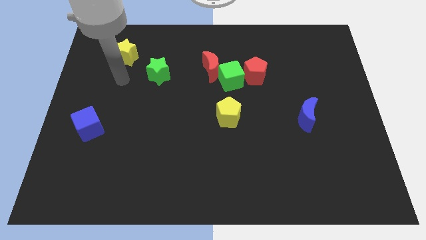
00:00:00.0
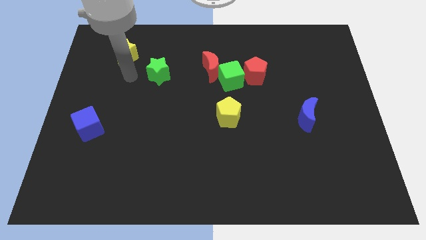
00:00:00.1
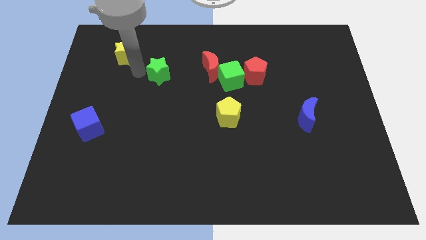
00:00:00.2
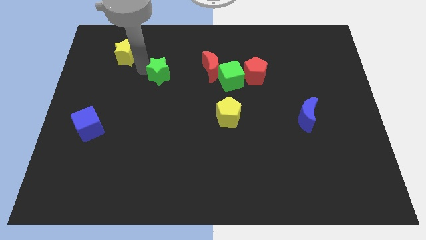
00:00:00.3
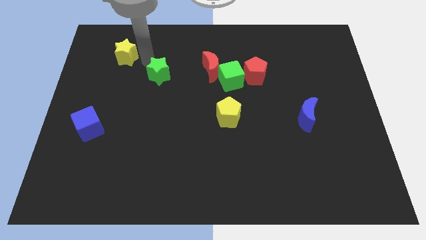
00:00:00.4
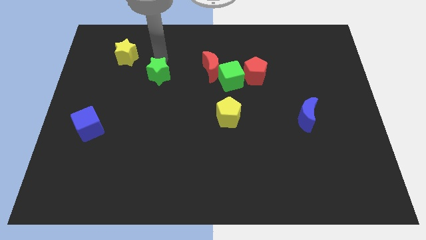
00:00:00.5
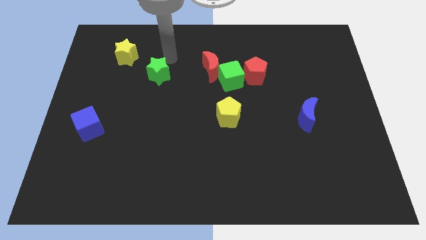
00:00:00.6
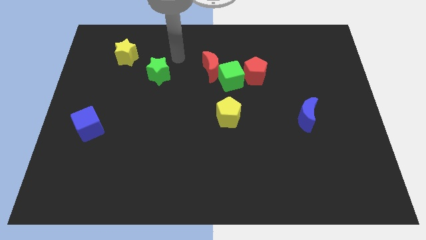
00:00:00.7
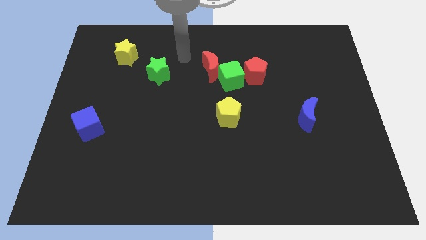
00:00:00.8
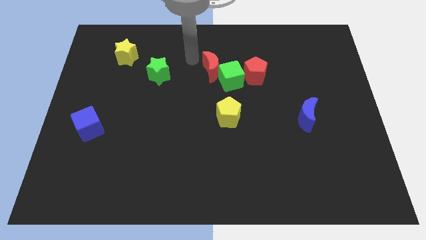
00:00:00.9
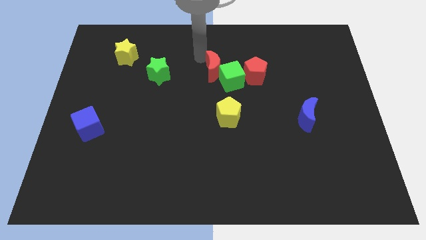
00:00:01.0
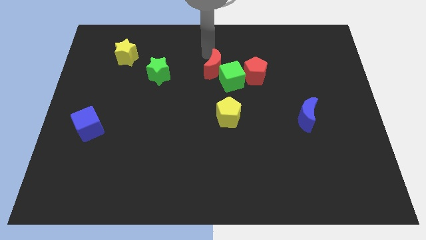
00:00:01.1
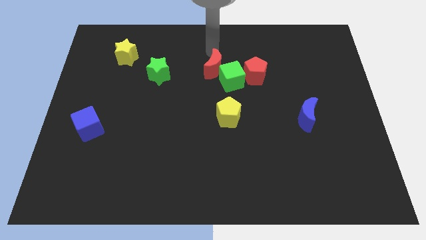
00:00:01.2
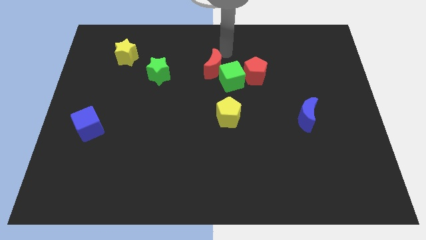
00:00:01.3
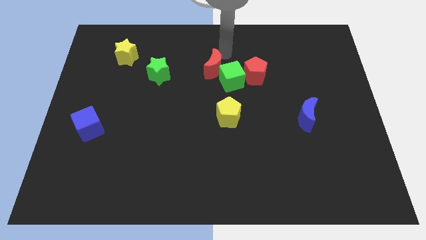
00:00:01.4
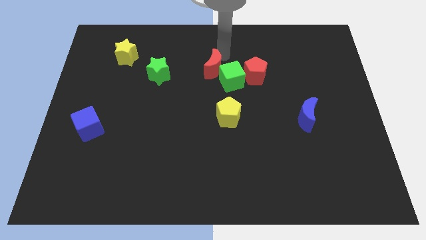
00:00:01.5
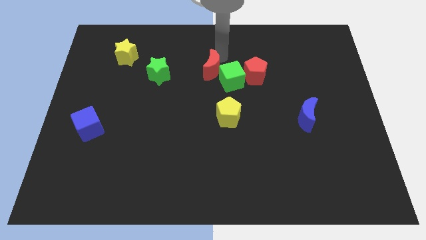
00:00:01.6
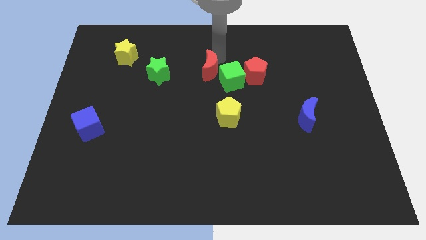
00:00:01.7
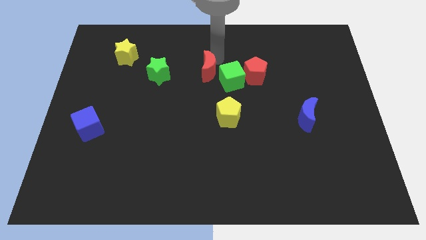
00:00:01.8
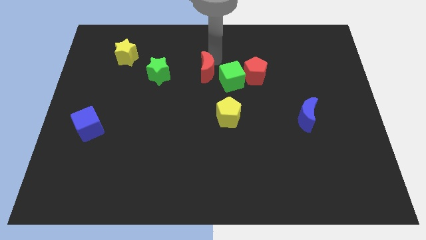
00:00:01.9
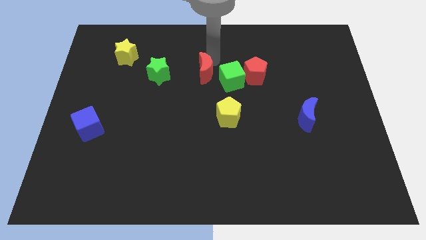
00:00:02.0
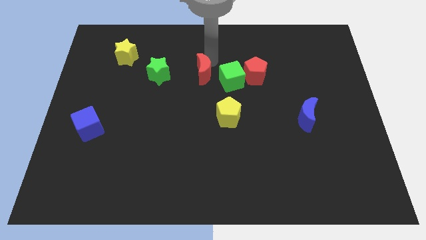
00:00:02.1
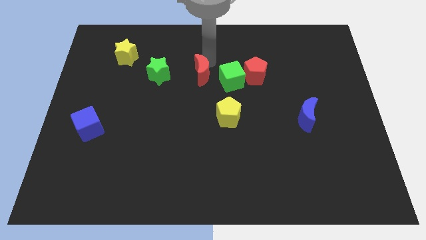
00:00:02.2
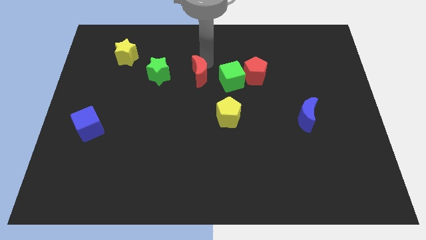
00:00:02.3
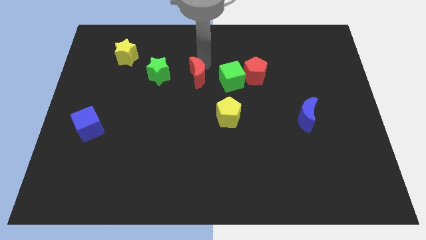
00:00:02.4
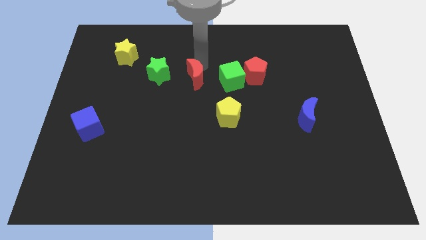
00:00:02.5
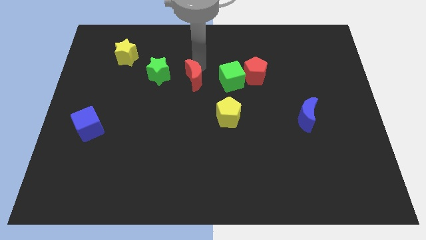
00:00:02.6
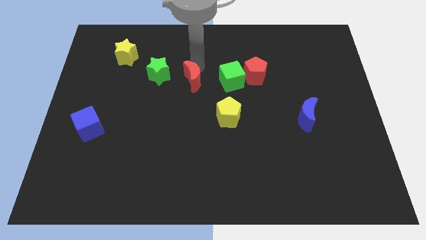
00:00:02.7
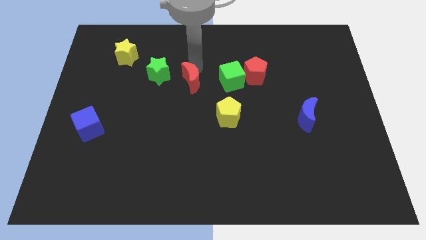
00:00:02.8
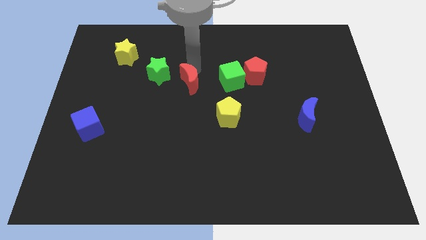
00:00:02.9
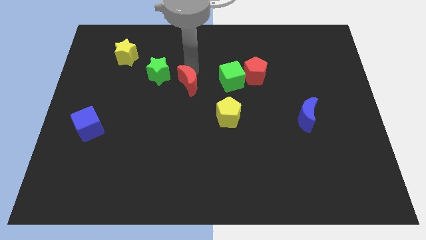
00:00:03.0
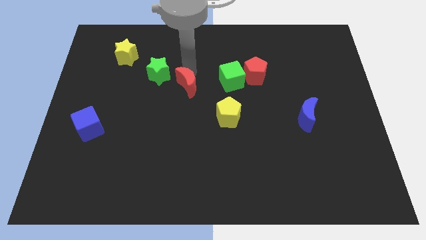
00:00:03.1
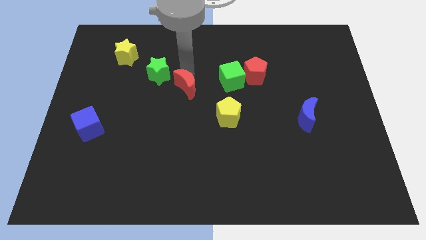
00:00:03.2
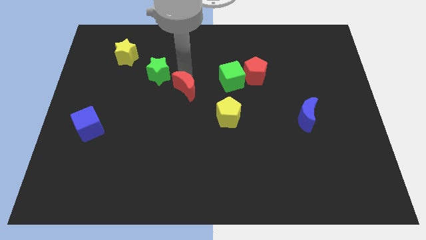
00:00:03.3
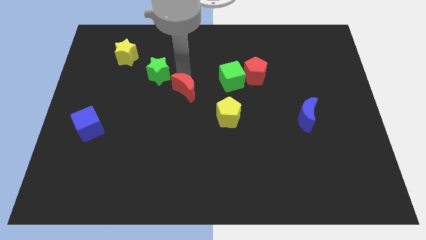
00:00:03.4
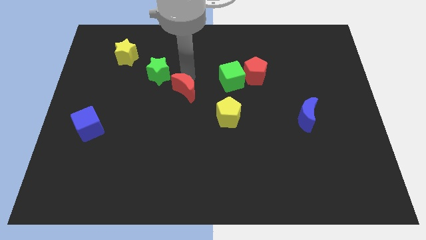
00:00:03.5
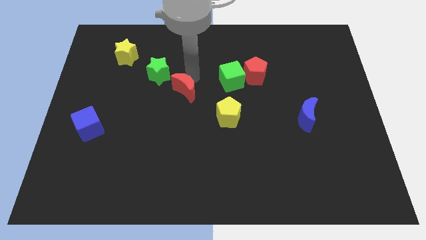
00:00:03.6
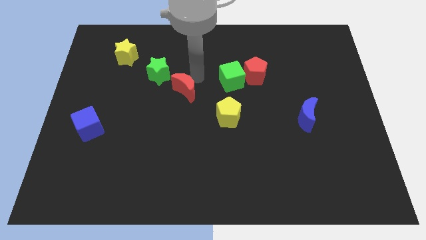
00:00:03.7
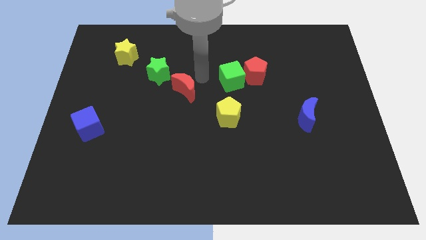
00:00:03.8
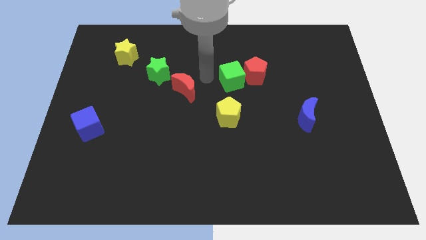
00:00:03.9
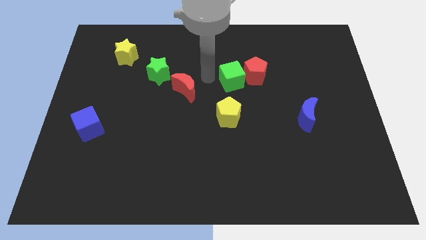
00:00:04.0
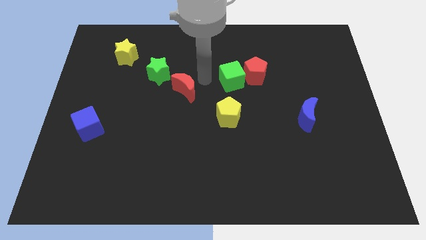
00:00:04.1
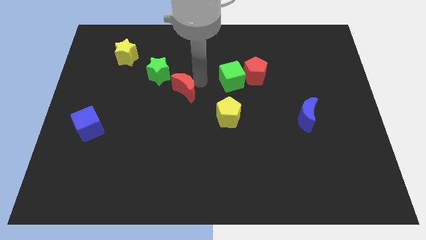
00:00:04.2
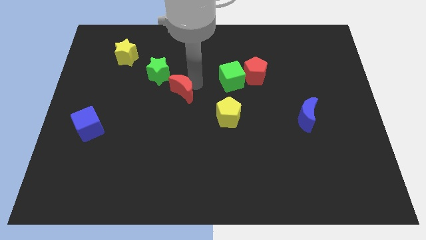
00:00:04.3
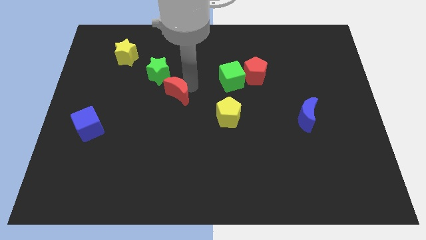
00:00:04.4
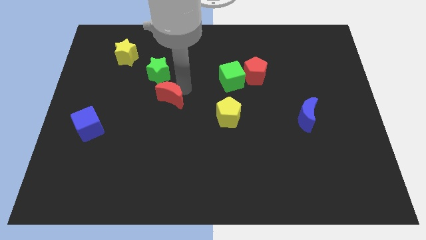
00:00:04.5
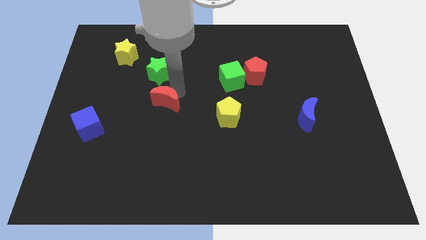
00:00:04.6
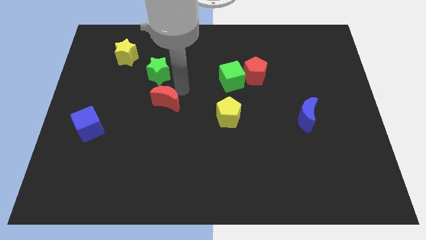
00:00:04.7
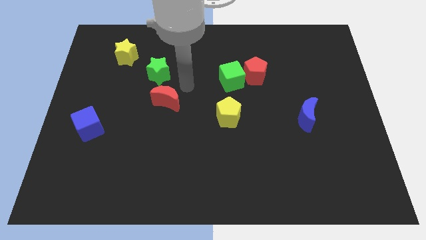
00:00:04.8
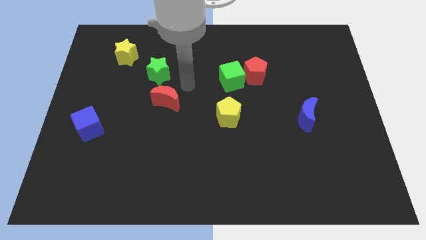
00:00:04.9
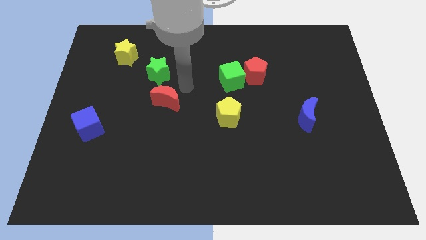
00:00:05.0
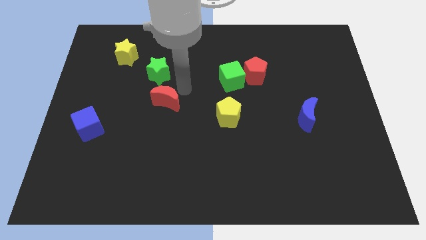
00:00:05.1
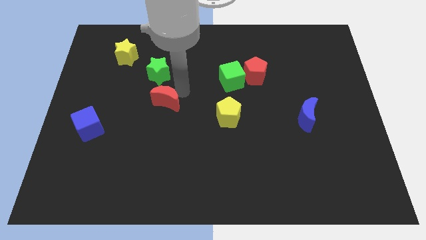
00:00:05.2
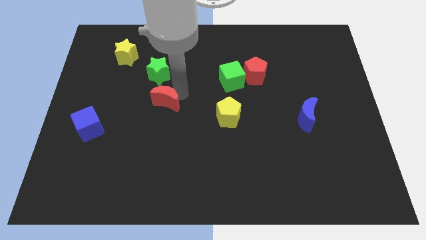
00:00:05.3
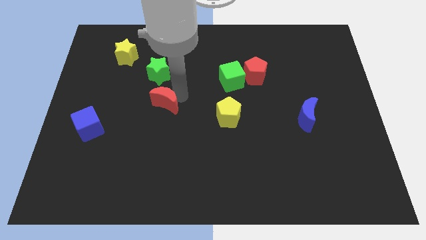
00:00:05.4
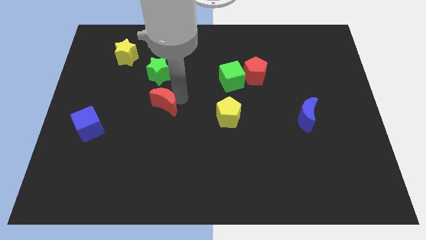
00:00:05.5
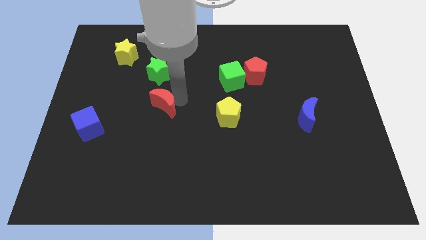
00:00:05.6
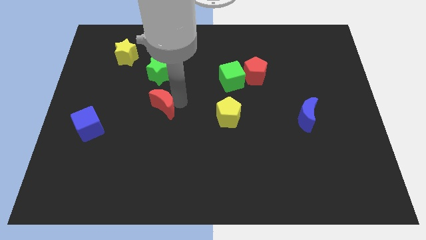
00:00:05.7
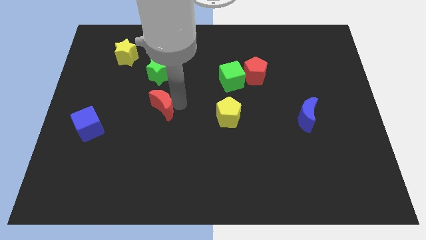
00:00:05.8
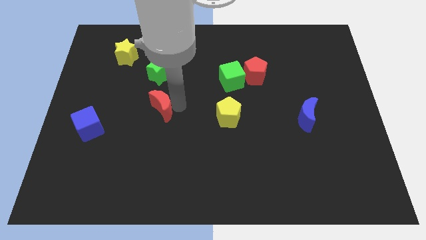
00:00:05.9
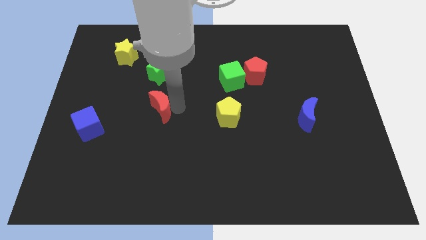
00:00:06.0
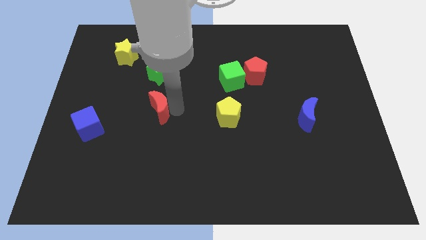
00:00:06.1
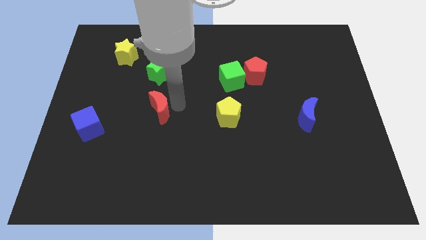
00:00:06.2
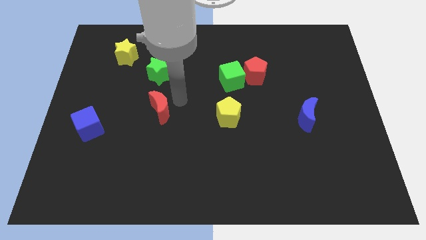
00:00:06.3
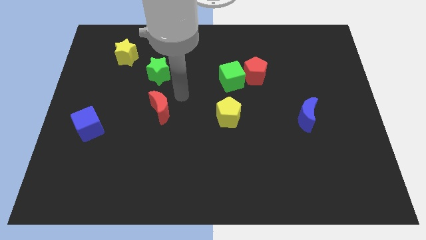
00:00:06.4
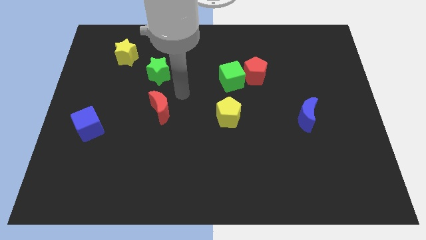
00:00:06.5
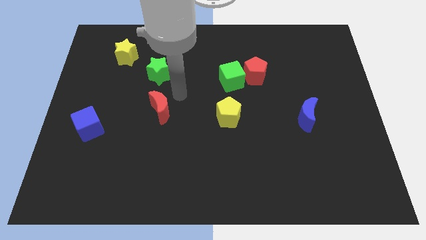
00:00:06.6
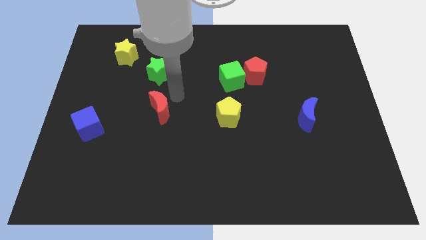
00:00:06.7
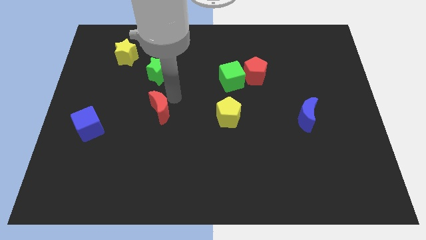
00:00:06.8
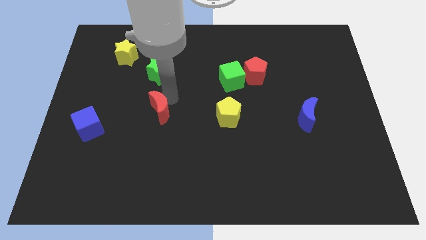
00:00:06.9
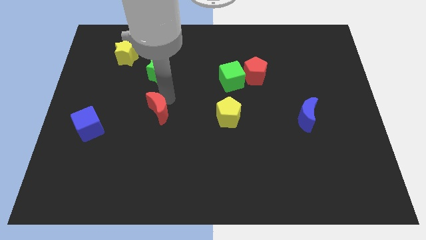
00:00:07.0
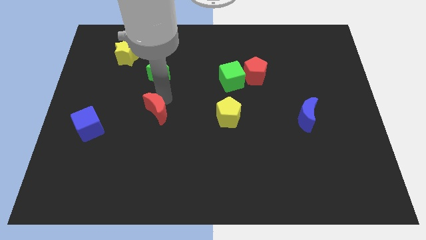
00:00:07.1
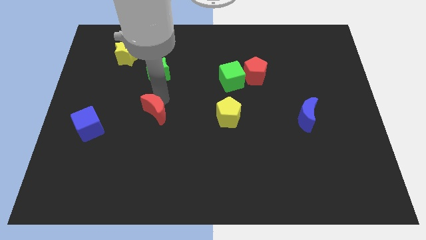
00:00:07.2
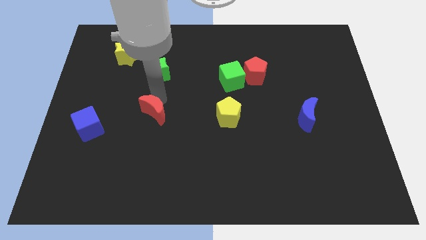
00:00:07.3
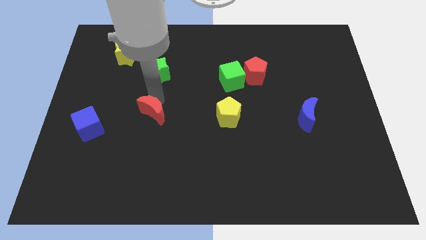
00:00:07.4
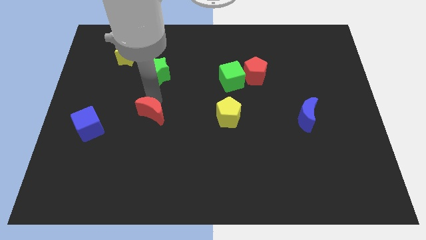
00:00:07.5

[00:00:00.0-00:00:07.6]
move the red moon down and left diagonally

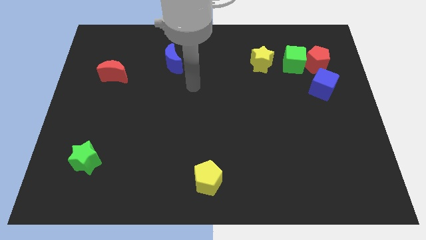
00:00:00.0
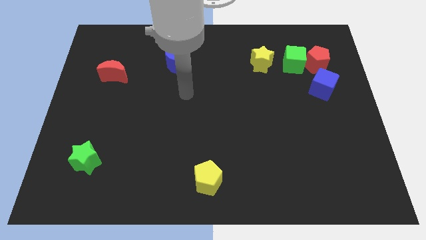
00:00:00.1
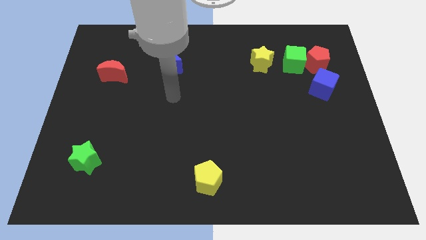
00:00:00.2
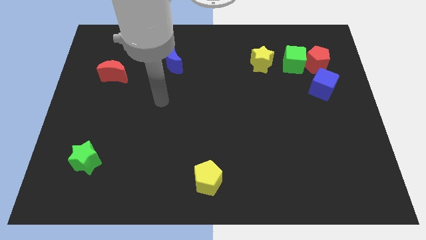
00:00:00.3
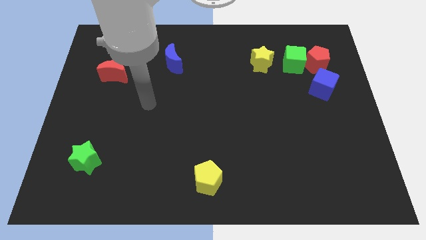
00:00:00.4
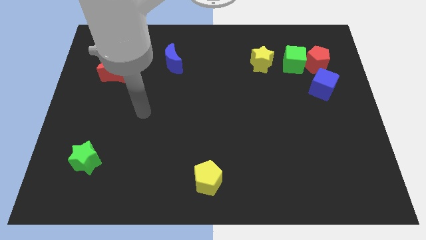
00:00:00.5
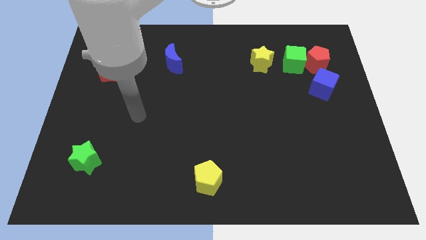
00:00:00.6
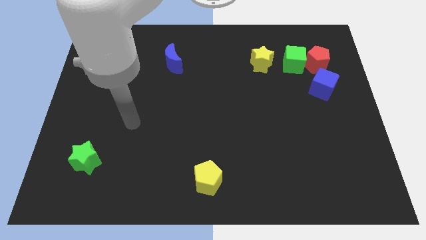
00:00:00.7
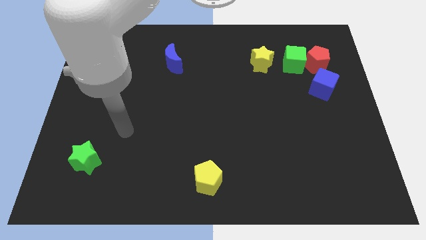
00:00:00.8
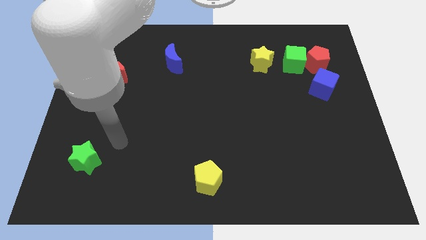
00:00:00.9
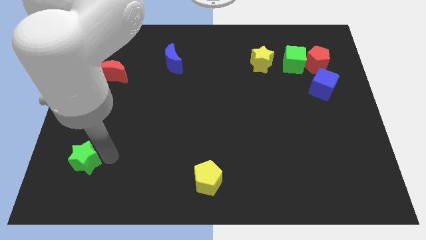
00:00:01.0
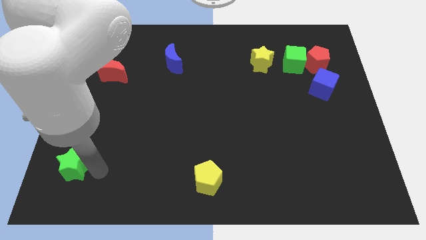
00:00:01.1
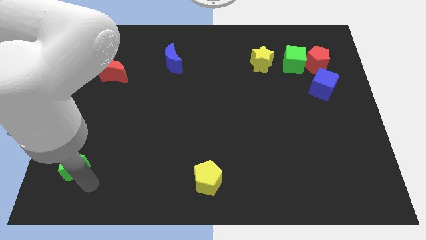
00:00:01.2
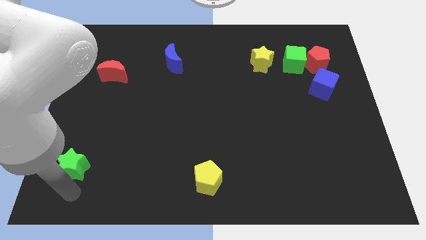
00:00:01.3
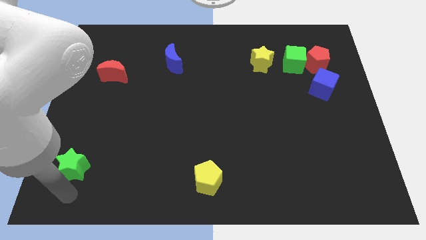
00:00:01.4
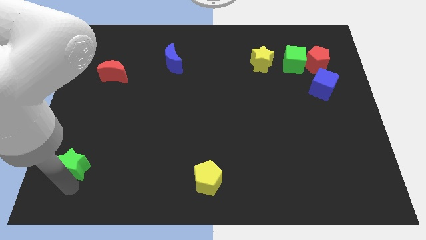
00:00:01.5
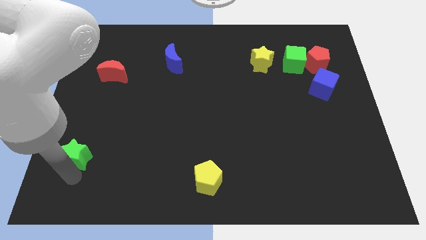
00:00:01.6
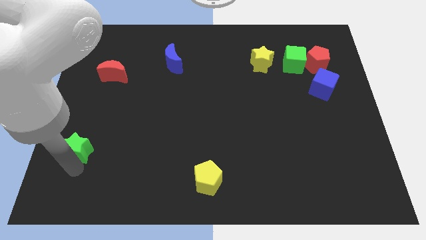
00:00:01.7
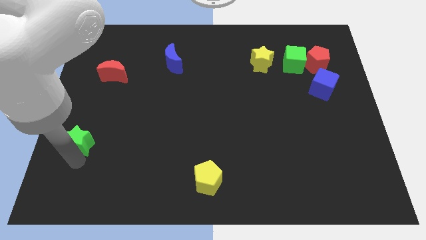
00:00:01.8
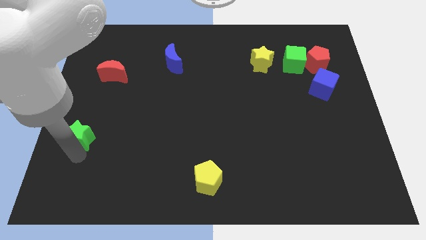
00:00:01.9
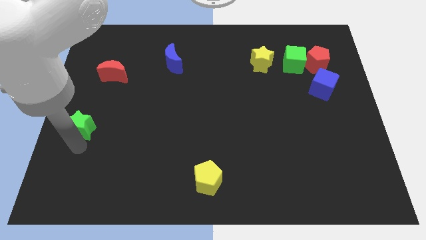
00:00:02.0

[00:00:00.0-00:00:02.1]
slide the green star upwards a little
